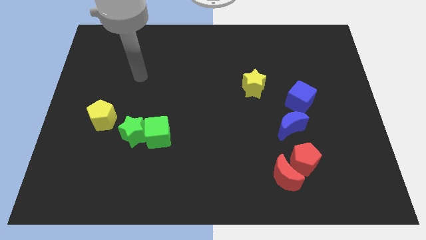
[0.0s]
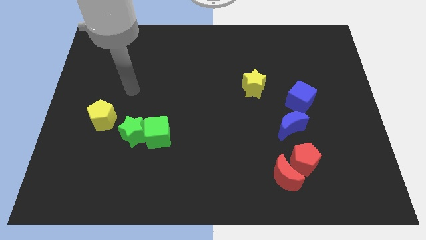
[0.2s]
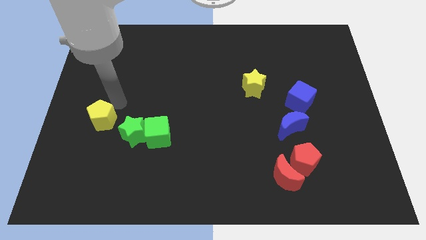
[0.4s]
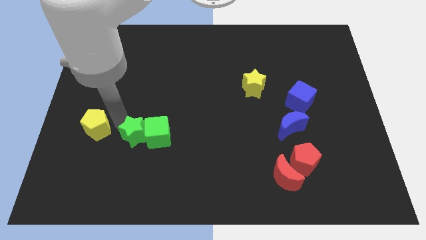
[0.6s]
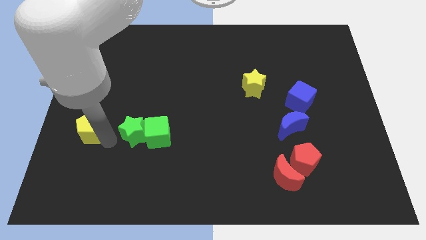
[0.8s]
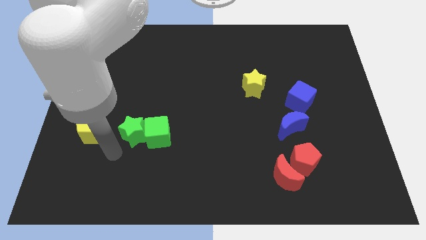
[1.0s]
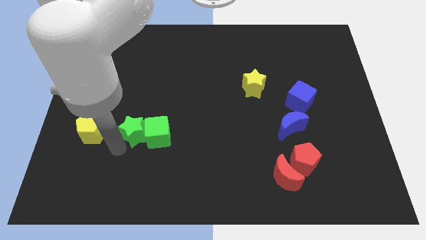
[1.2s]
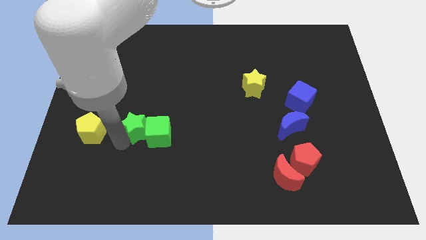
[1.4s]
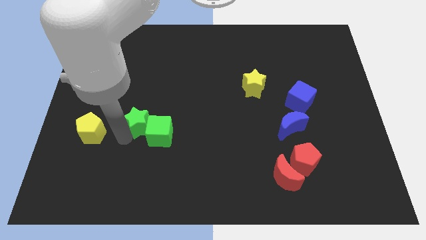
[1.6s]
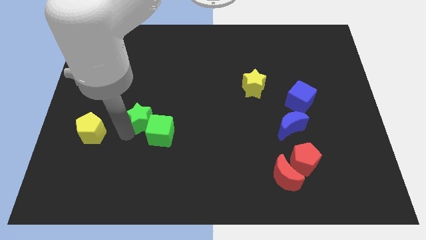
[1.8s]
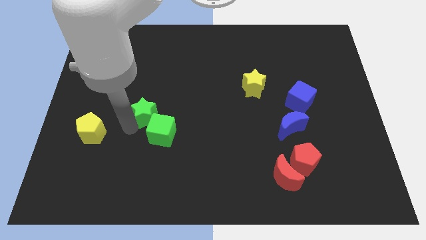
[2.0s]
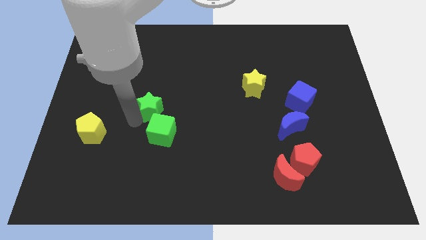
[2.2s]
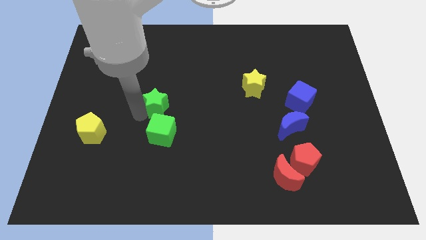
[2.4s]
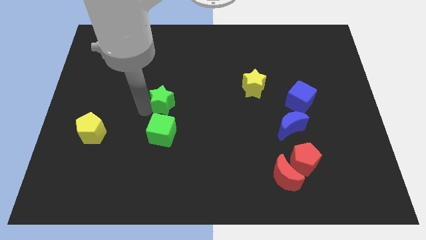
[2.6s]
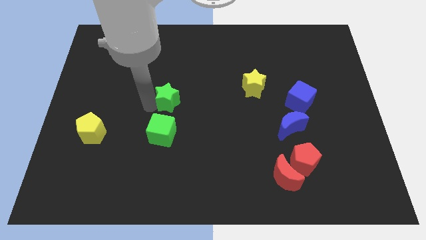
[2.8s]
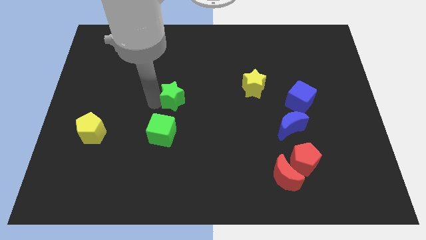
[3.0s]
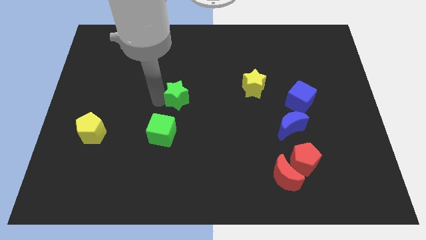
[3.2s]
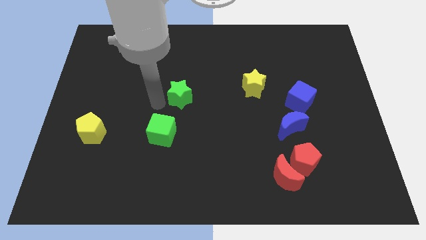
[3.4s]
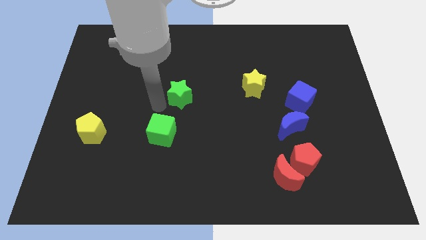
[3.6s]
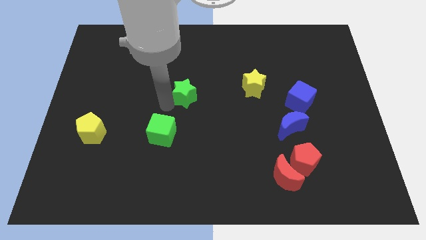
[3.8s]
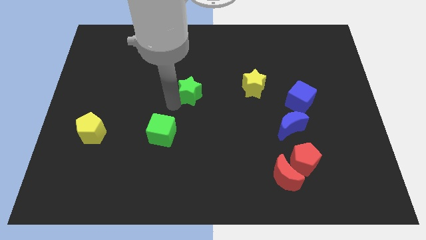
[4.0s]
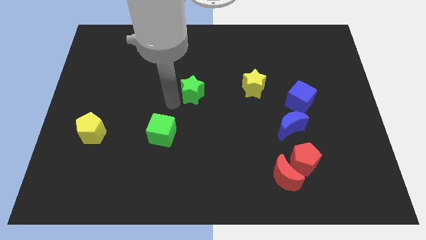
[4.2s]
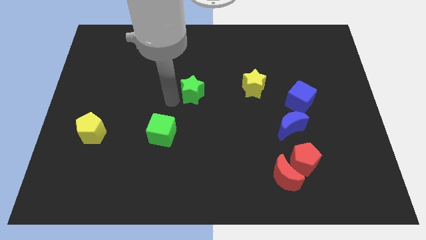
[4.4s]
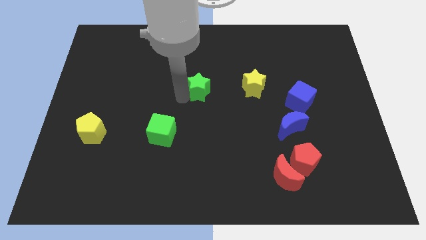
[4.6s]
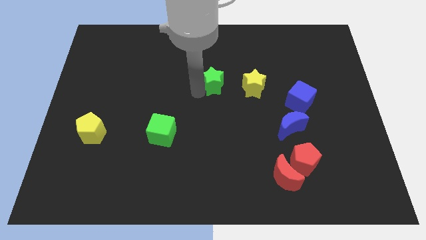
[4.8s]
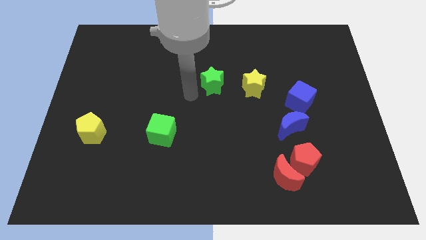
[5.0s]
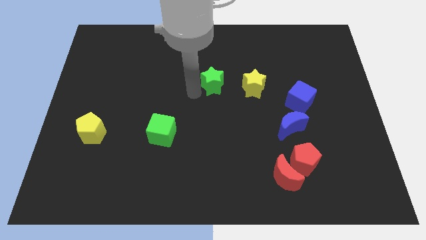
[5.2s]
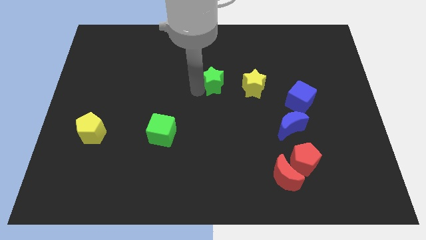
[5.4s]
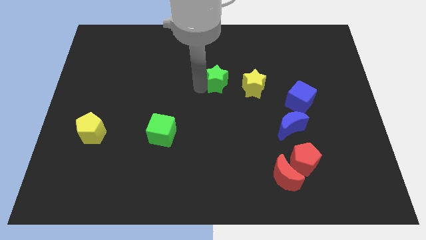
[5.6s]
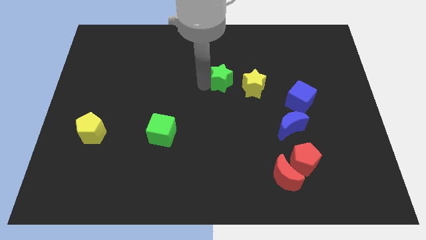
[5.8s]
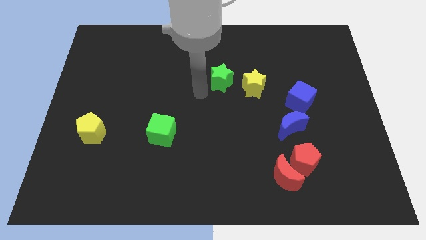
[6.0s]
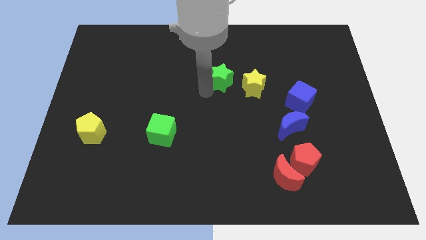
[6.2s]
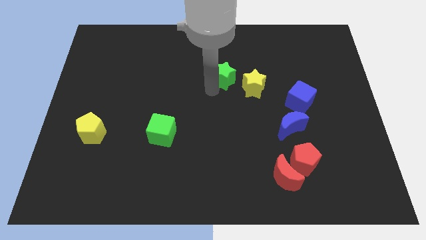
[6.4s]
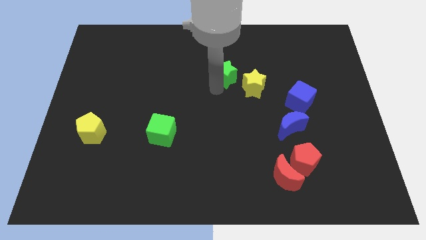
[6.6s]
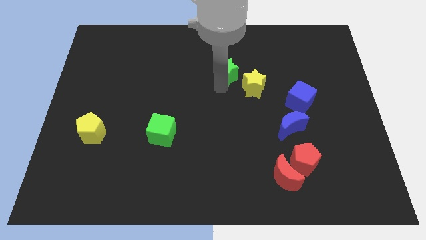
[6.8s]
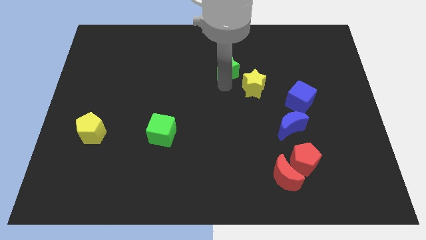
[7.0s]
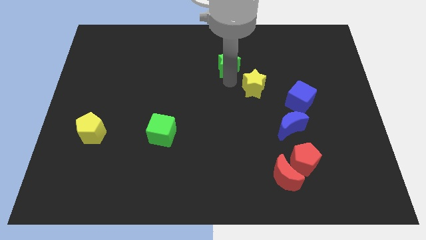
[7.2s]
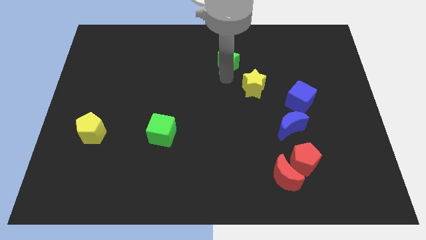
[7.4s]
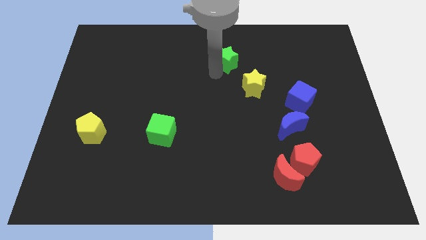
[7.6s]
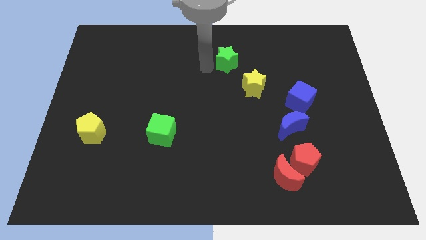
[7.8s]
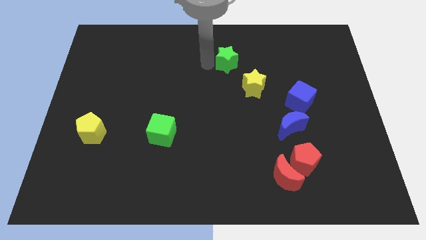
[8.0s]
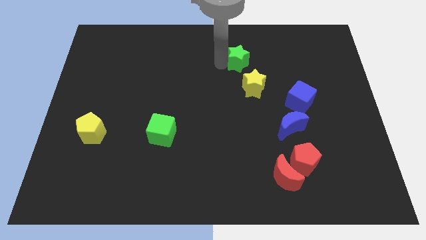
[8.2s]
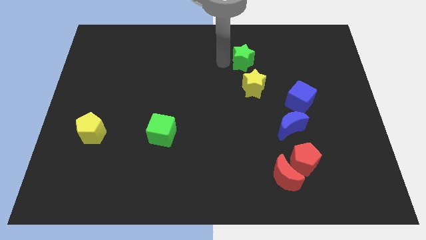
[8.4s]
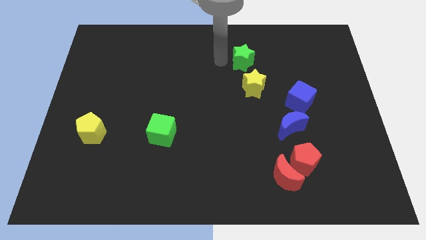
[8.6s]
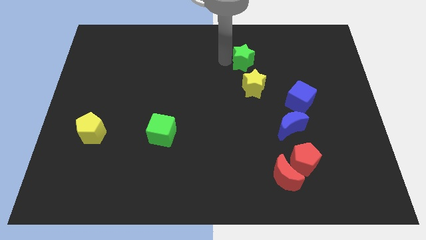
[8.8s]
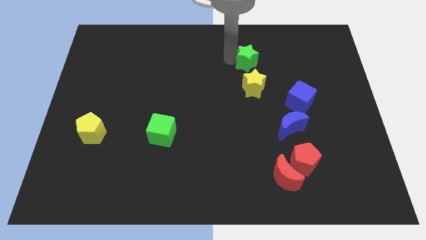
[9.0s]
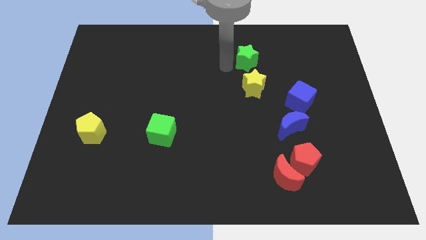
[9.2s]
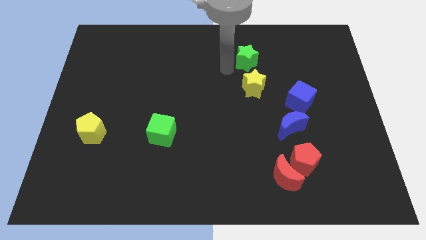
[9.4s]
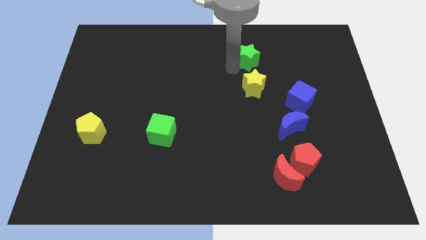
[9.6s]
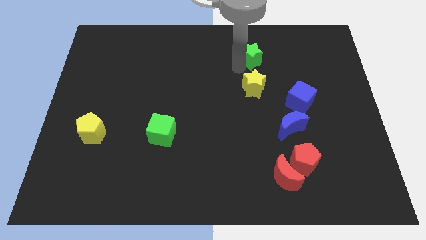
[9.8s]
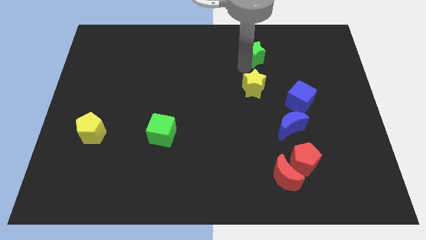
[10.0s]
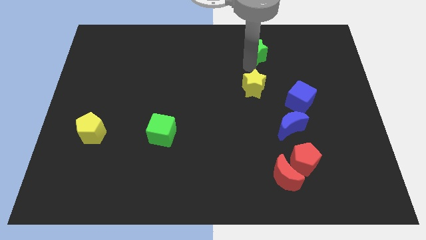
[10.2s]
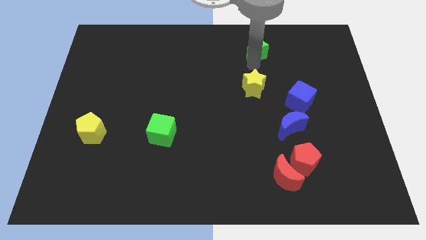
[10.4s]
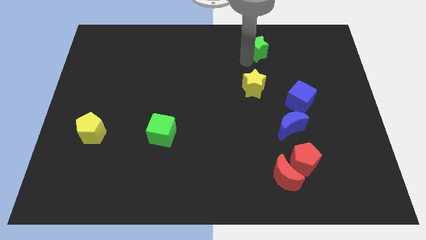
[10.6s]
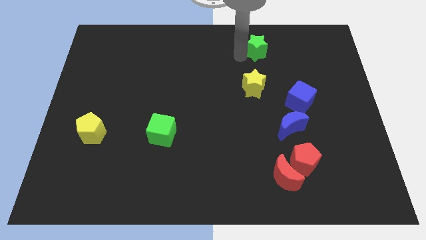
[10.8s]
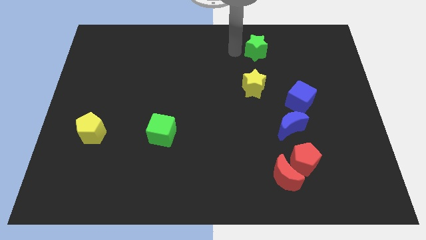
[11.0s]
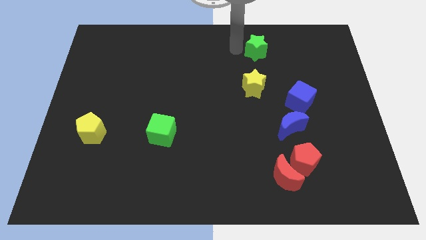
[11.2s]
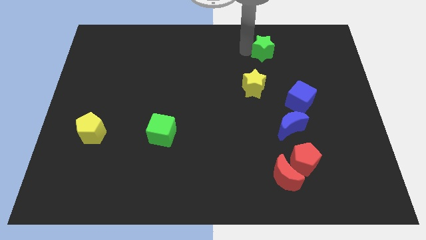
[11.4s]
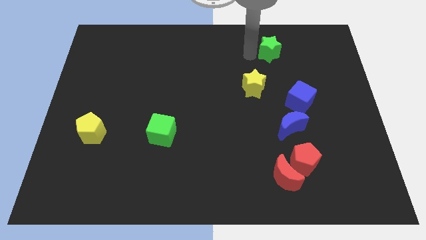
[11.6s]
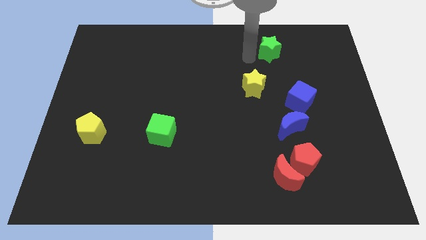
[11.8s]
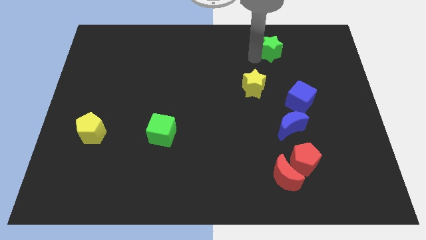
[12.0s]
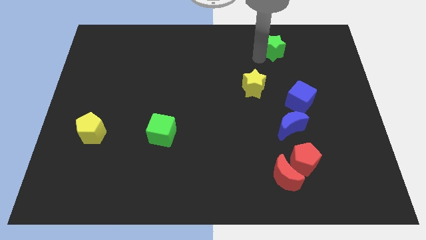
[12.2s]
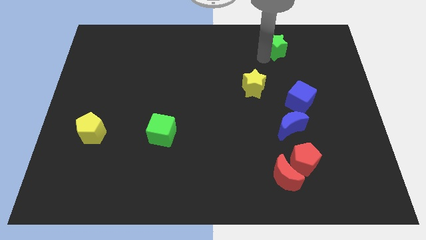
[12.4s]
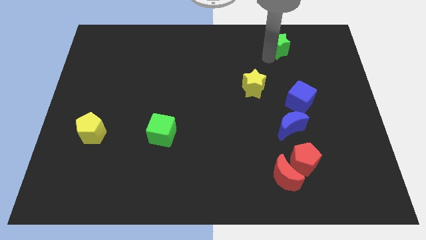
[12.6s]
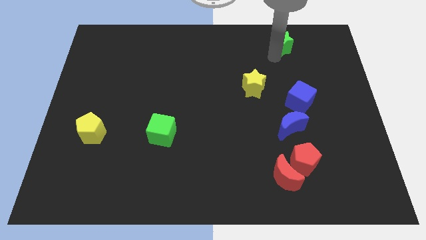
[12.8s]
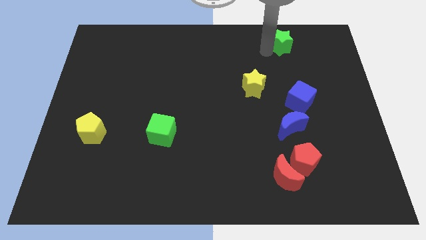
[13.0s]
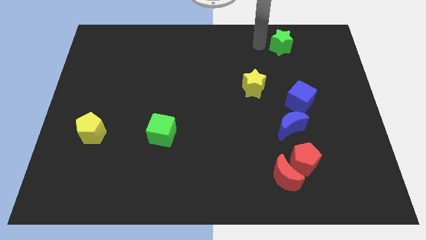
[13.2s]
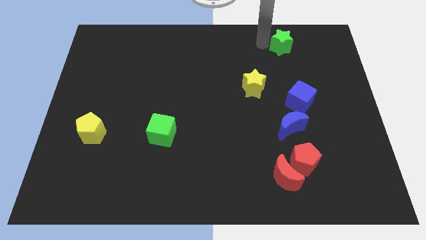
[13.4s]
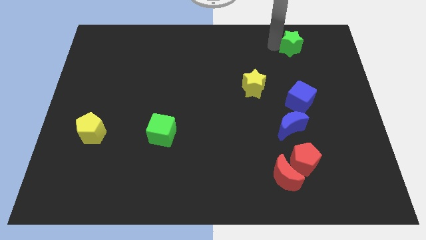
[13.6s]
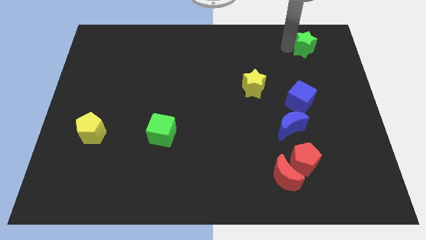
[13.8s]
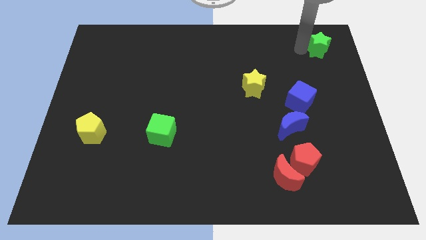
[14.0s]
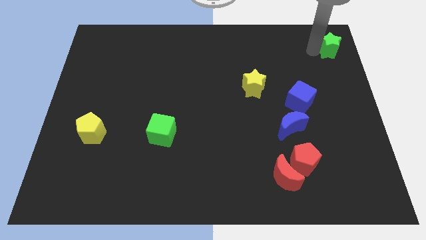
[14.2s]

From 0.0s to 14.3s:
put the green star to the upper right corner
